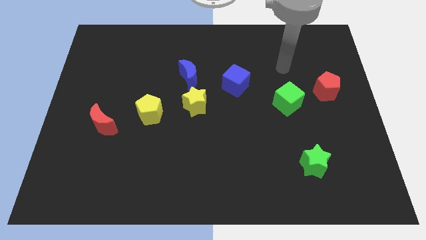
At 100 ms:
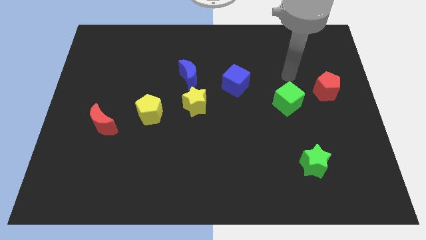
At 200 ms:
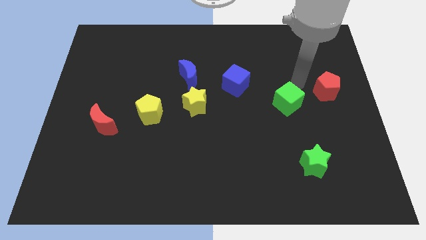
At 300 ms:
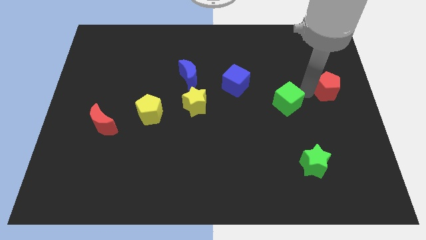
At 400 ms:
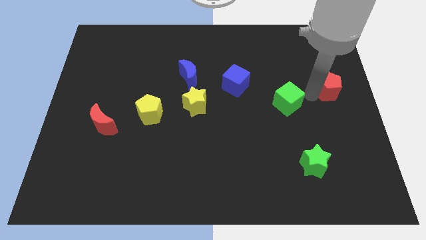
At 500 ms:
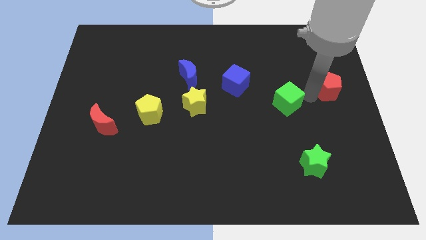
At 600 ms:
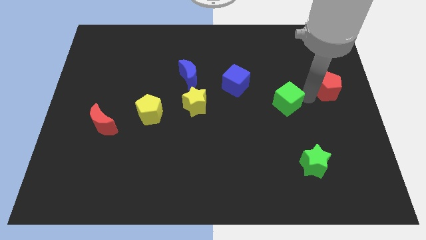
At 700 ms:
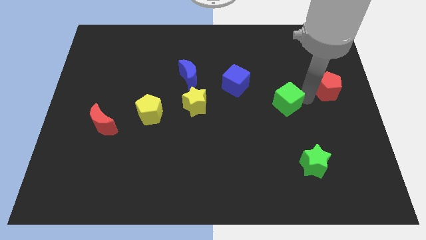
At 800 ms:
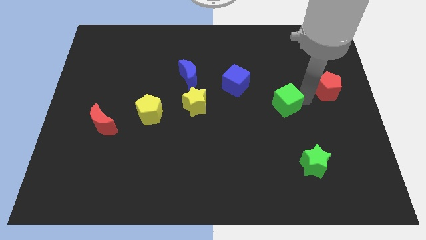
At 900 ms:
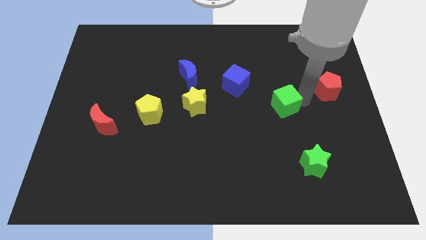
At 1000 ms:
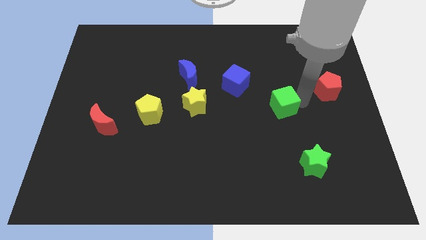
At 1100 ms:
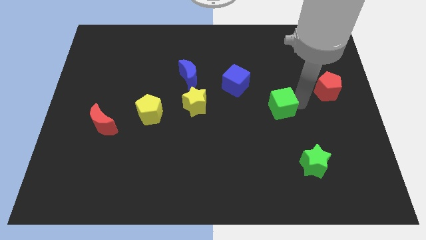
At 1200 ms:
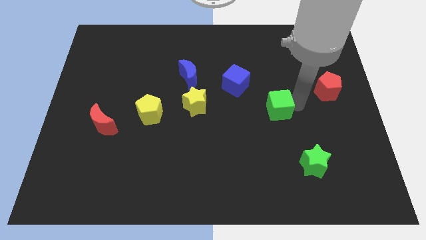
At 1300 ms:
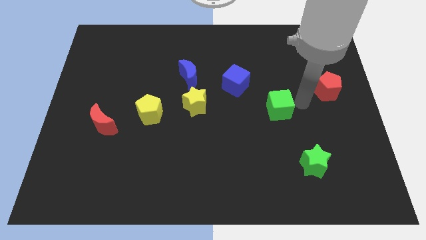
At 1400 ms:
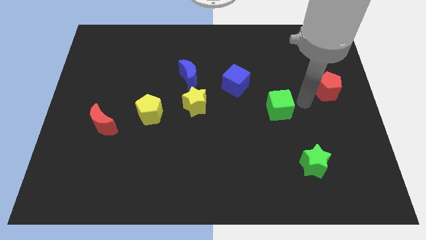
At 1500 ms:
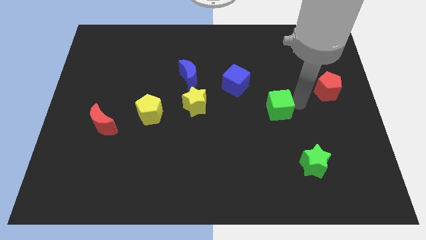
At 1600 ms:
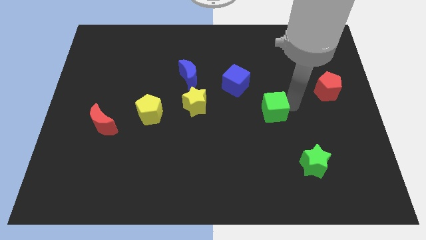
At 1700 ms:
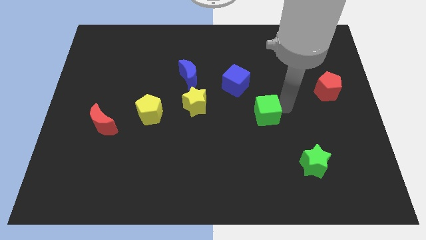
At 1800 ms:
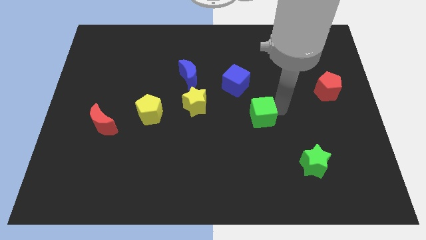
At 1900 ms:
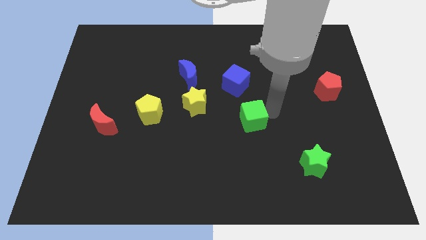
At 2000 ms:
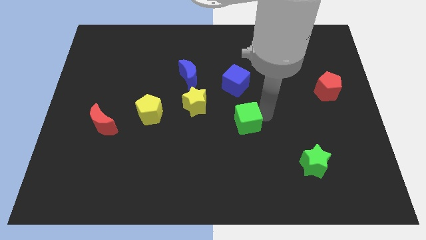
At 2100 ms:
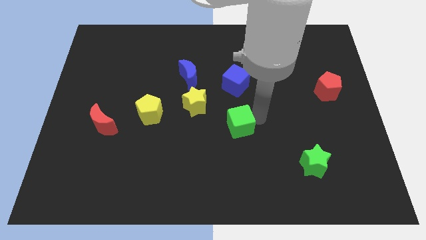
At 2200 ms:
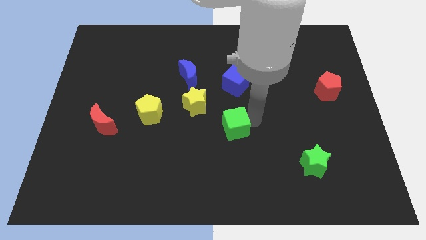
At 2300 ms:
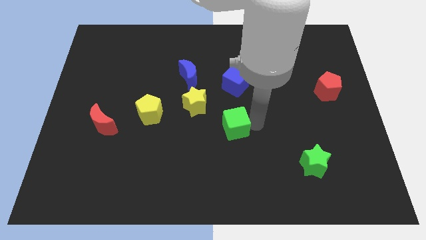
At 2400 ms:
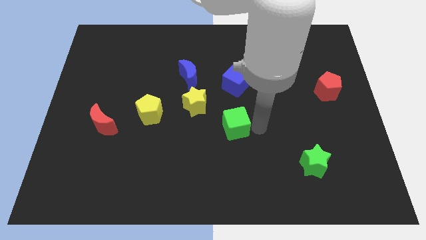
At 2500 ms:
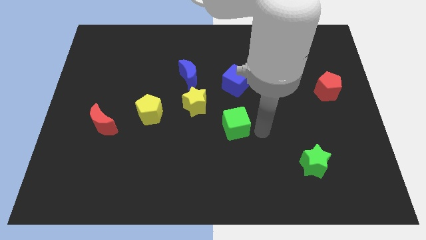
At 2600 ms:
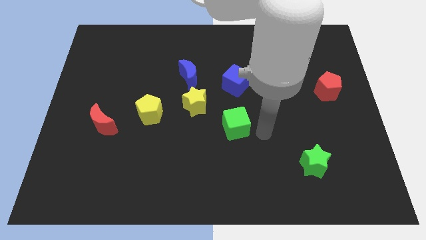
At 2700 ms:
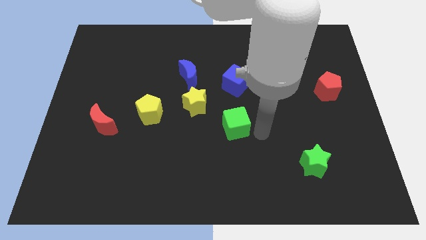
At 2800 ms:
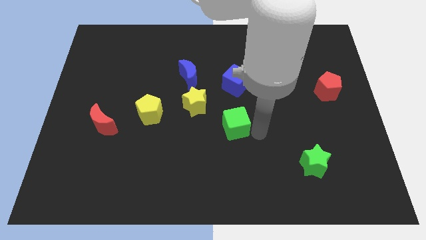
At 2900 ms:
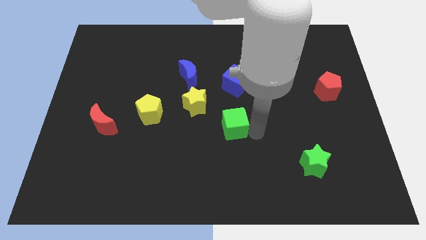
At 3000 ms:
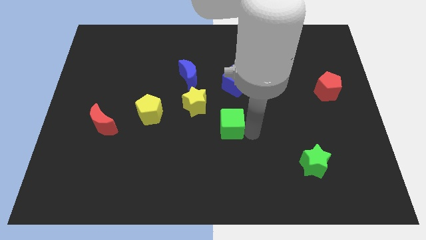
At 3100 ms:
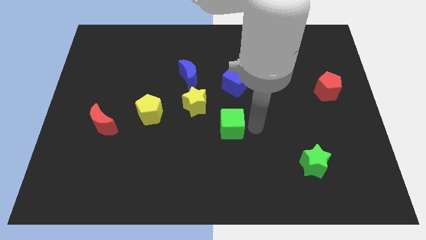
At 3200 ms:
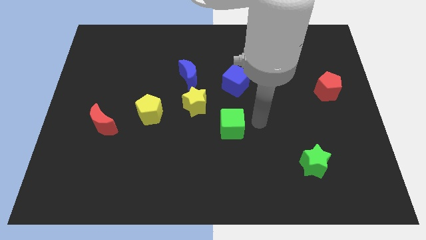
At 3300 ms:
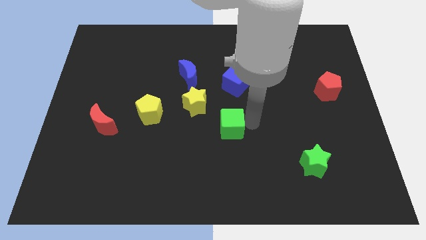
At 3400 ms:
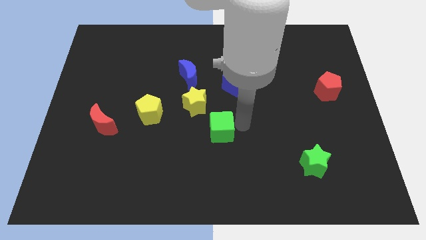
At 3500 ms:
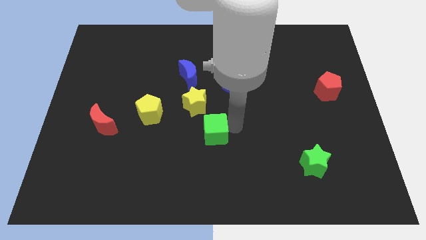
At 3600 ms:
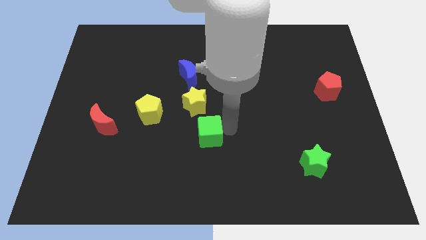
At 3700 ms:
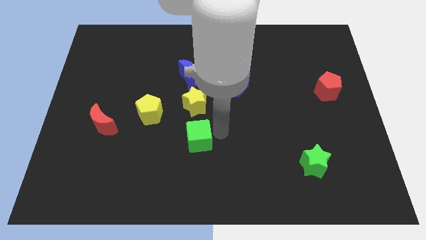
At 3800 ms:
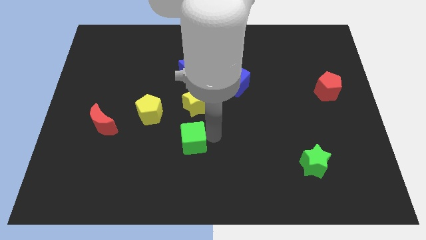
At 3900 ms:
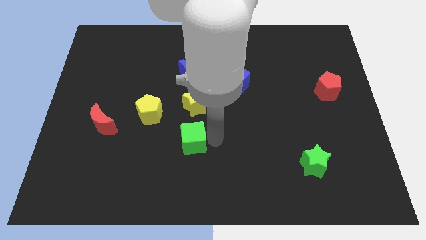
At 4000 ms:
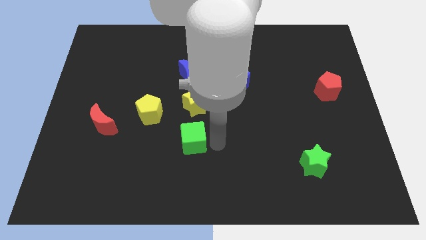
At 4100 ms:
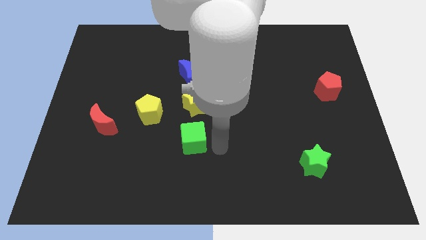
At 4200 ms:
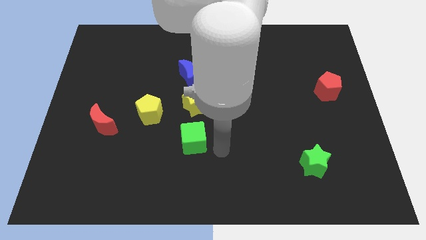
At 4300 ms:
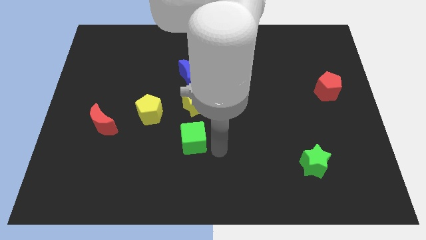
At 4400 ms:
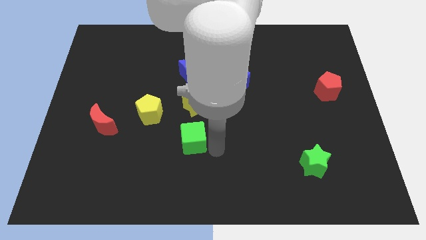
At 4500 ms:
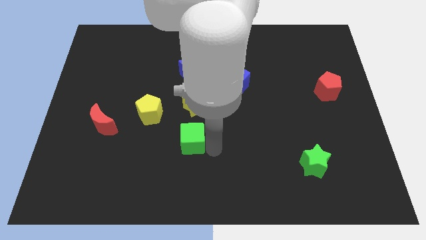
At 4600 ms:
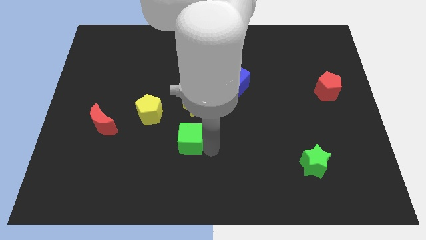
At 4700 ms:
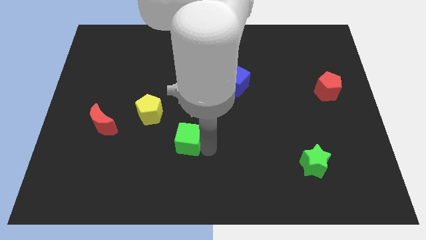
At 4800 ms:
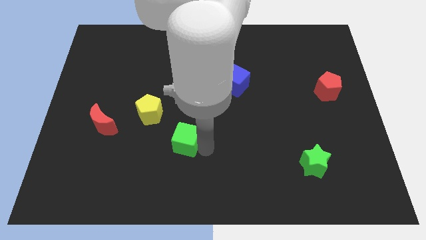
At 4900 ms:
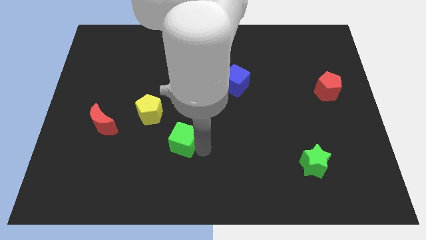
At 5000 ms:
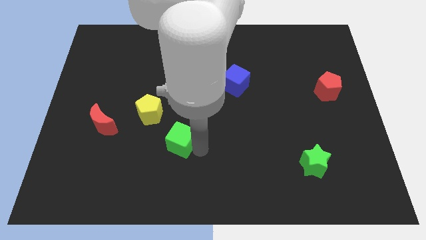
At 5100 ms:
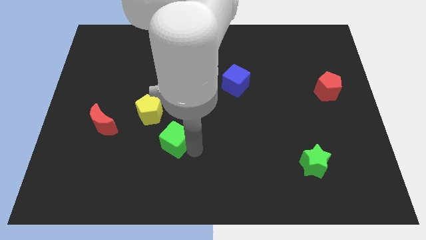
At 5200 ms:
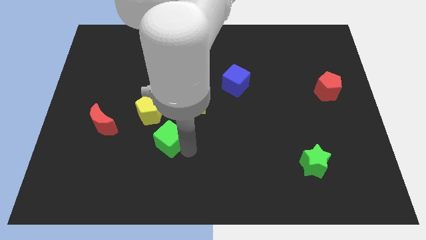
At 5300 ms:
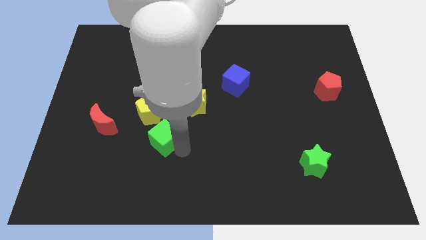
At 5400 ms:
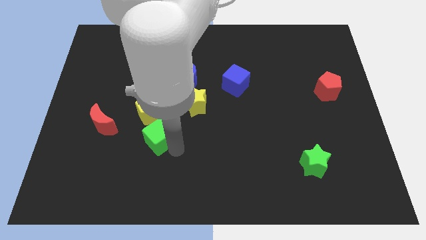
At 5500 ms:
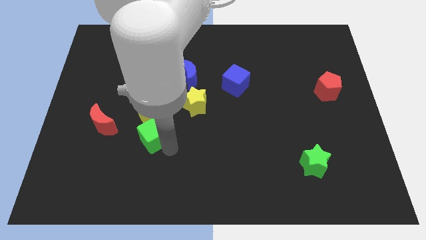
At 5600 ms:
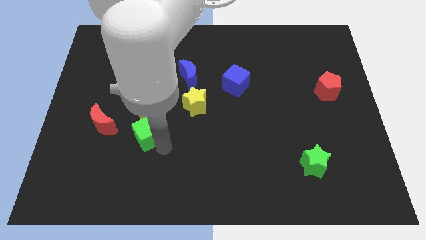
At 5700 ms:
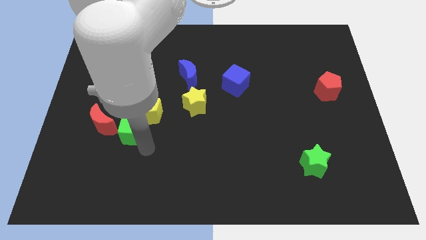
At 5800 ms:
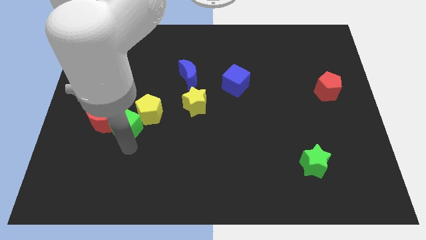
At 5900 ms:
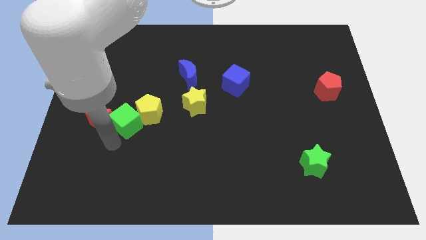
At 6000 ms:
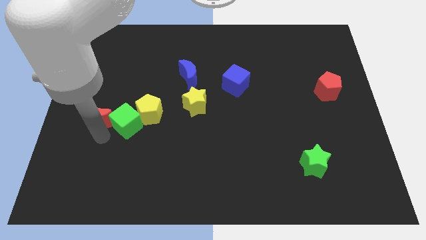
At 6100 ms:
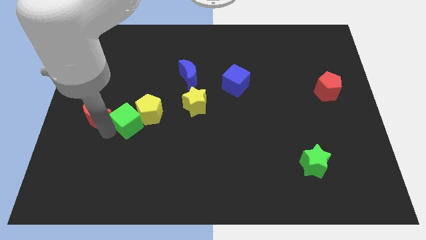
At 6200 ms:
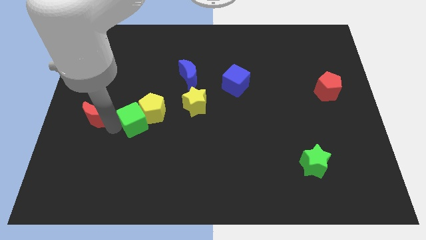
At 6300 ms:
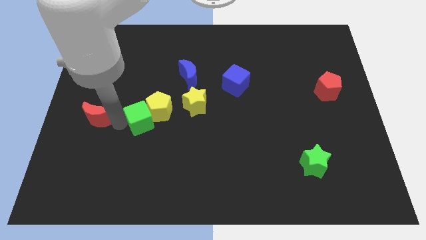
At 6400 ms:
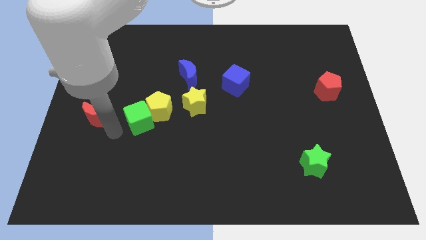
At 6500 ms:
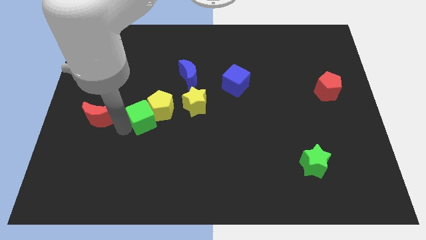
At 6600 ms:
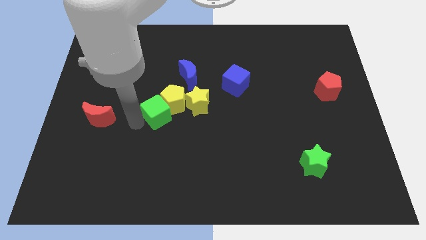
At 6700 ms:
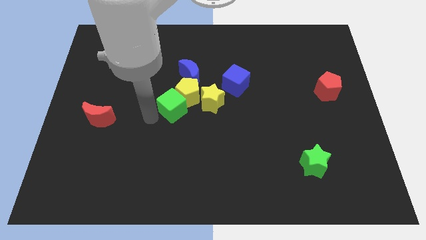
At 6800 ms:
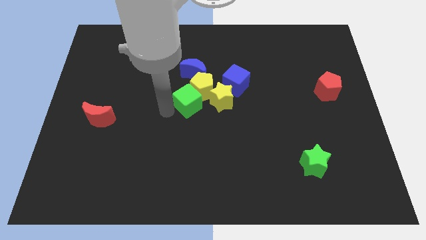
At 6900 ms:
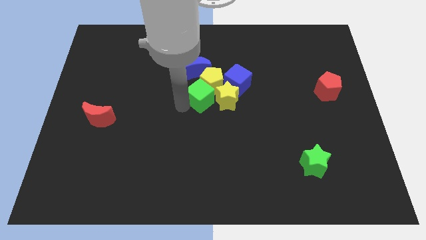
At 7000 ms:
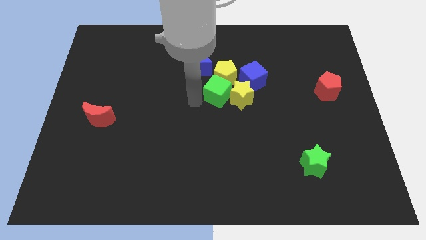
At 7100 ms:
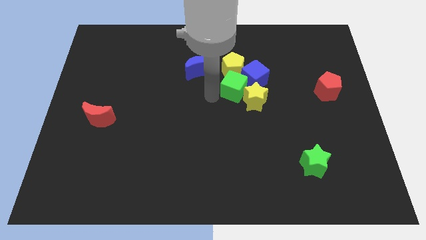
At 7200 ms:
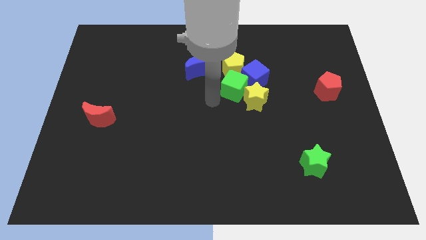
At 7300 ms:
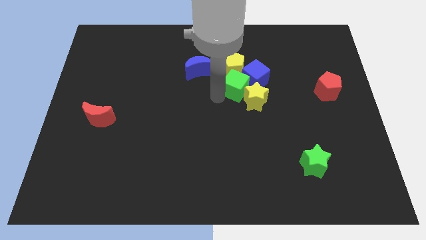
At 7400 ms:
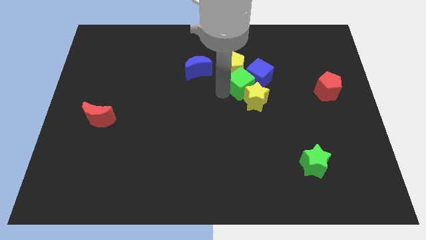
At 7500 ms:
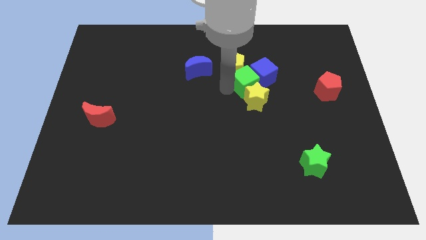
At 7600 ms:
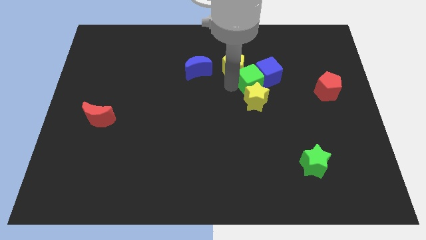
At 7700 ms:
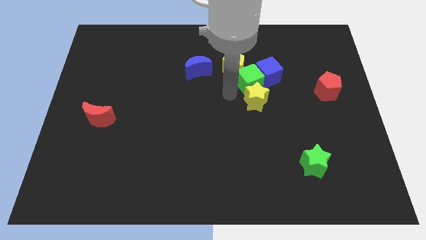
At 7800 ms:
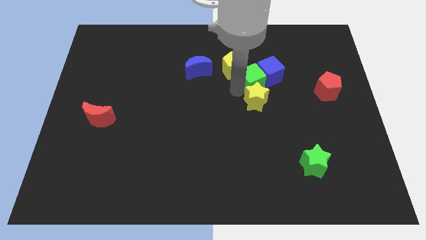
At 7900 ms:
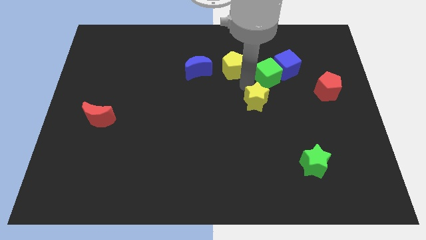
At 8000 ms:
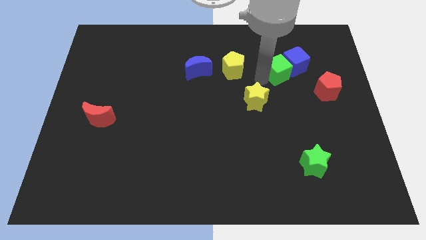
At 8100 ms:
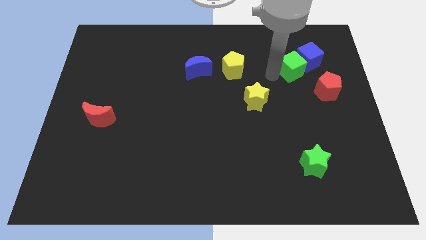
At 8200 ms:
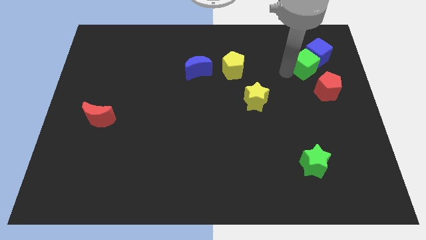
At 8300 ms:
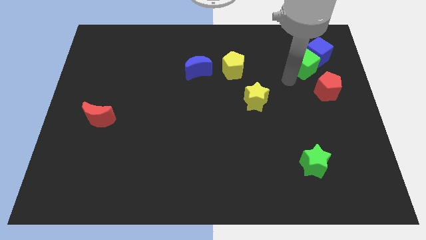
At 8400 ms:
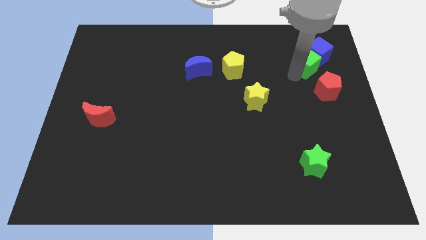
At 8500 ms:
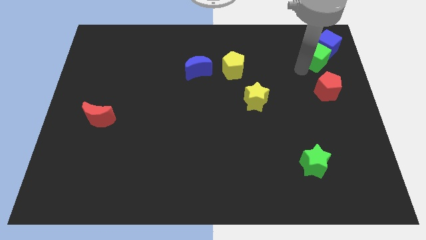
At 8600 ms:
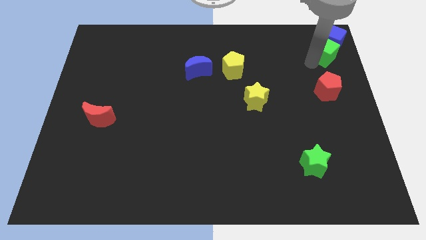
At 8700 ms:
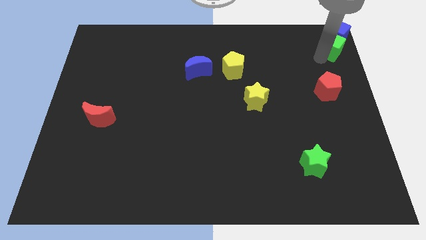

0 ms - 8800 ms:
move the green cube to the top right
